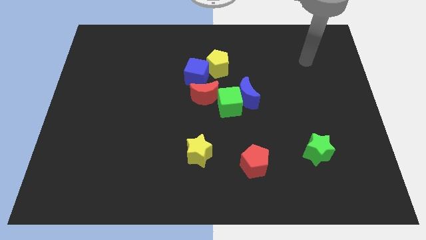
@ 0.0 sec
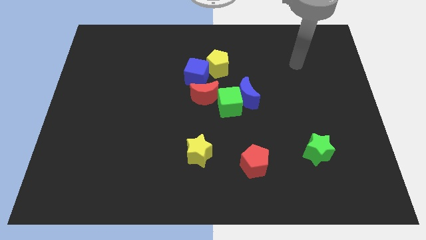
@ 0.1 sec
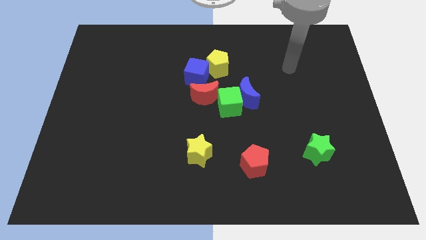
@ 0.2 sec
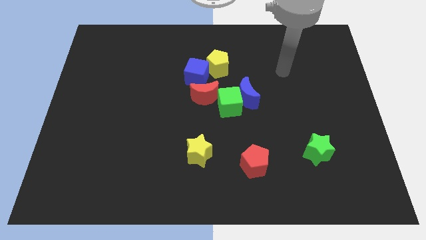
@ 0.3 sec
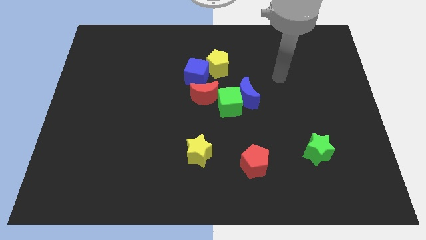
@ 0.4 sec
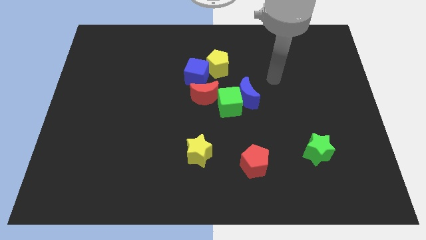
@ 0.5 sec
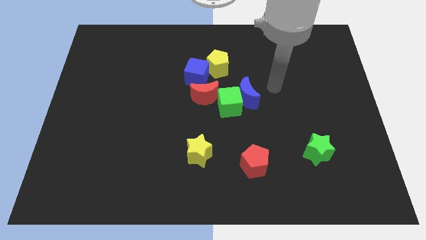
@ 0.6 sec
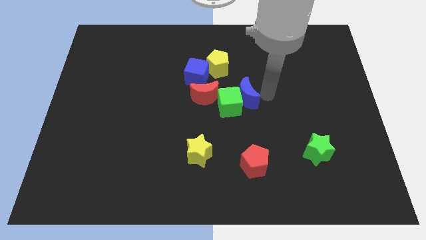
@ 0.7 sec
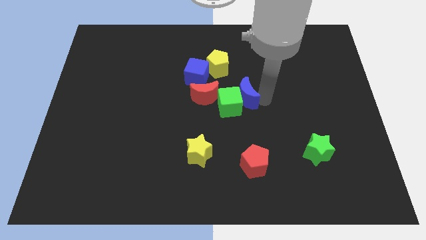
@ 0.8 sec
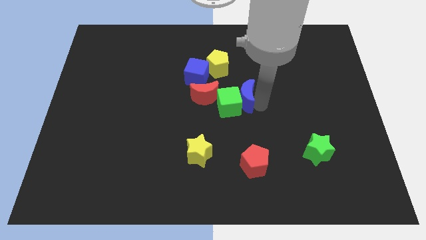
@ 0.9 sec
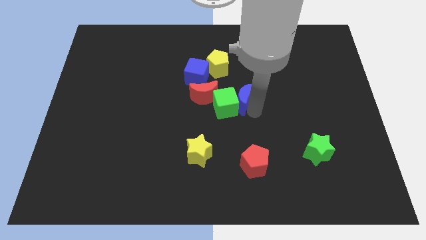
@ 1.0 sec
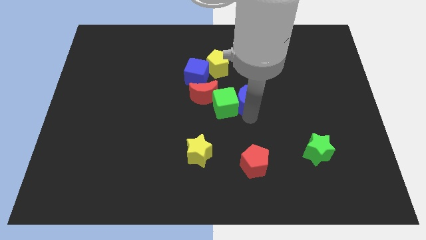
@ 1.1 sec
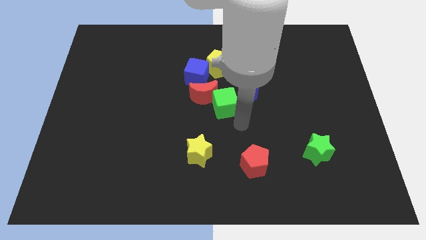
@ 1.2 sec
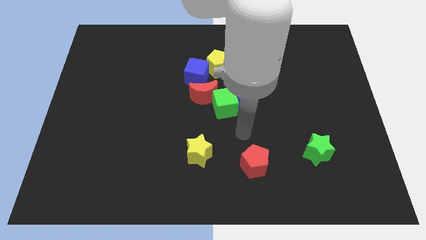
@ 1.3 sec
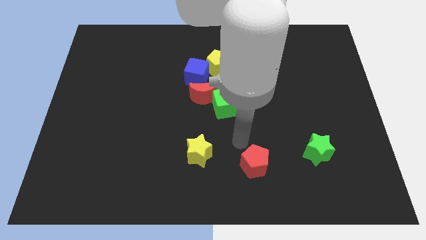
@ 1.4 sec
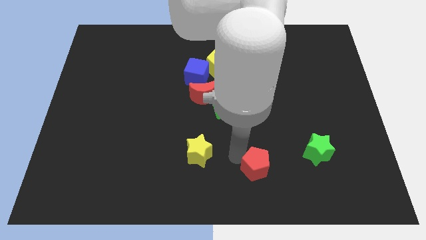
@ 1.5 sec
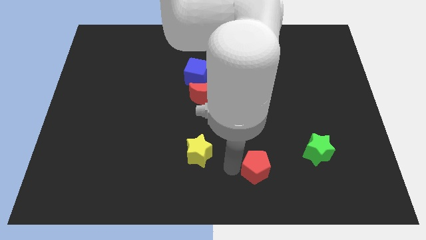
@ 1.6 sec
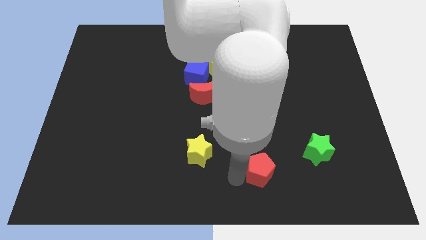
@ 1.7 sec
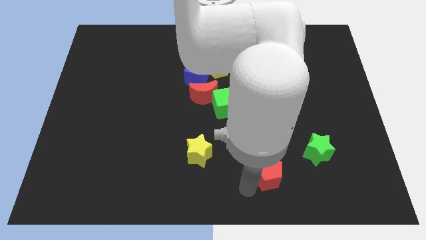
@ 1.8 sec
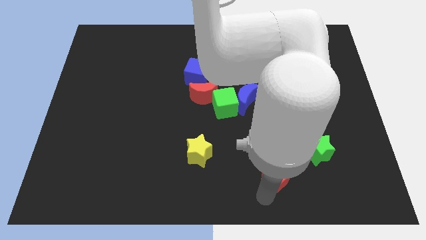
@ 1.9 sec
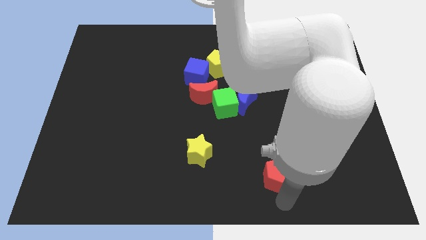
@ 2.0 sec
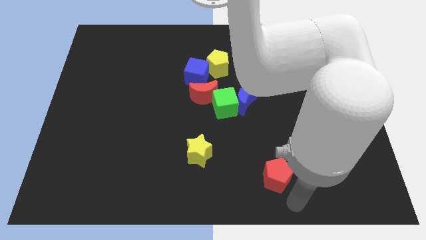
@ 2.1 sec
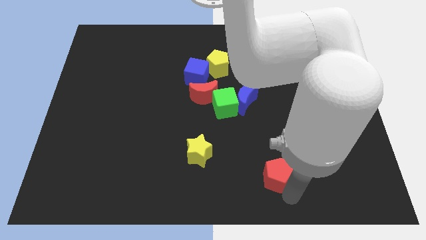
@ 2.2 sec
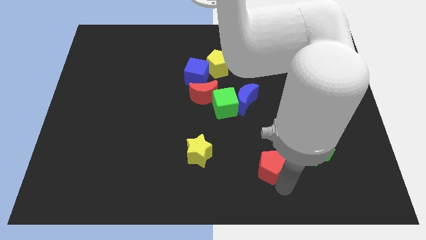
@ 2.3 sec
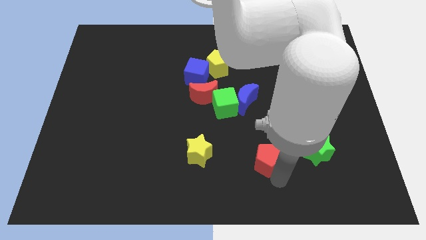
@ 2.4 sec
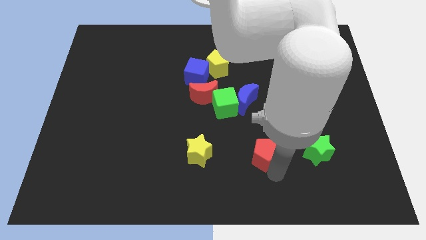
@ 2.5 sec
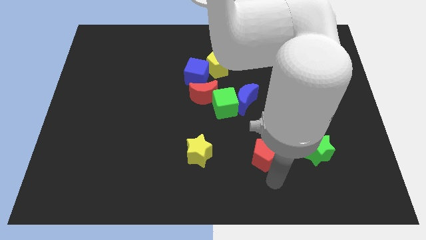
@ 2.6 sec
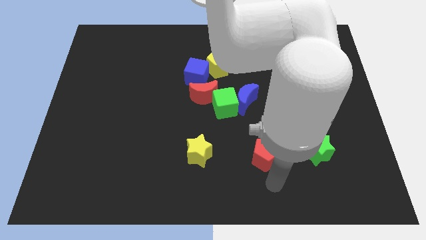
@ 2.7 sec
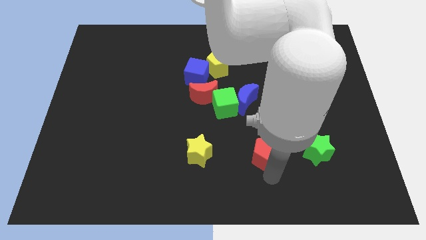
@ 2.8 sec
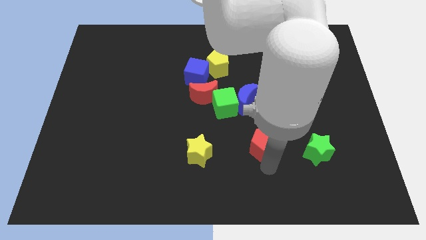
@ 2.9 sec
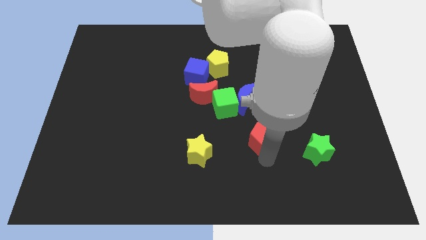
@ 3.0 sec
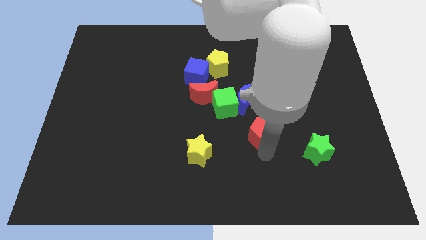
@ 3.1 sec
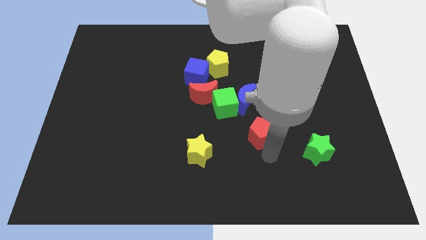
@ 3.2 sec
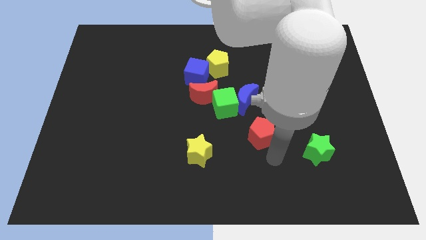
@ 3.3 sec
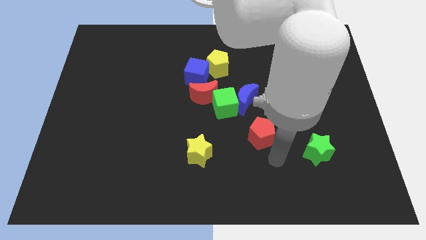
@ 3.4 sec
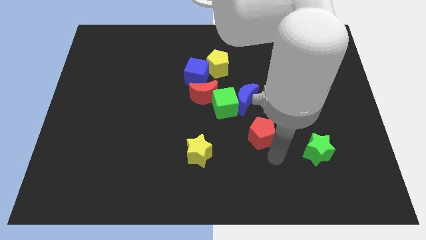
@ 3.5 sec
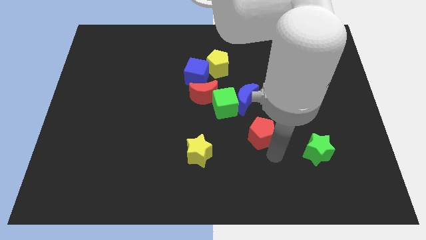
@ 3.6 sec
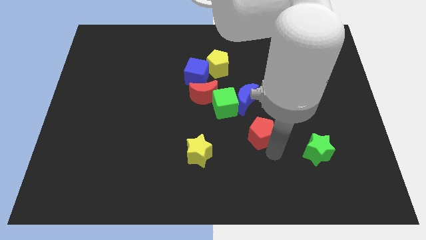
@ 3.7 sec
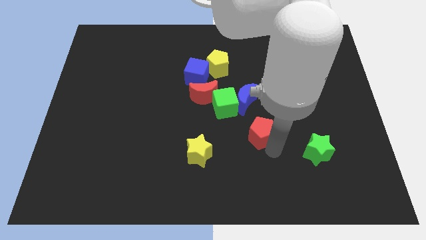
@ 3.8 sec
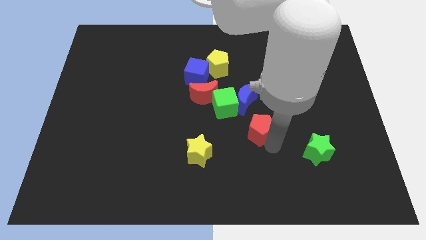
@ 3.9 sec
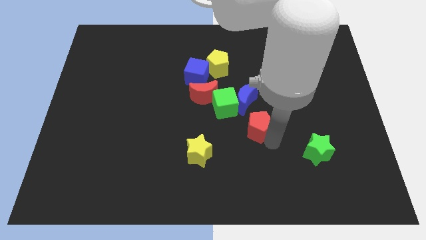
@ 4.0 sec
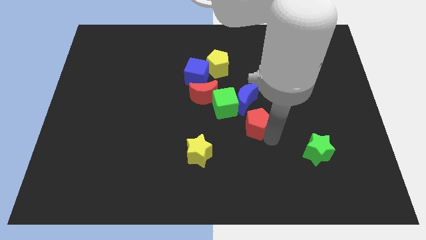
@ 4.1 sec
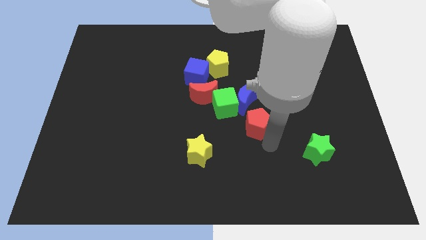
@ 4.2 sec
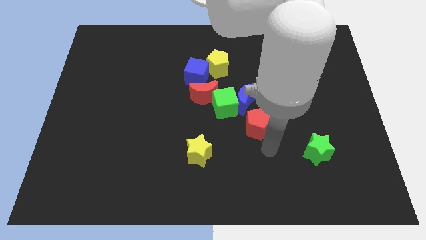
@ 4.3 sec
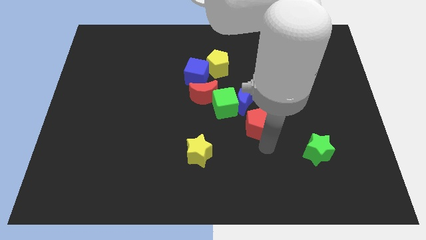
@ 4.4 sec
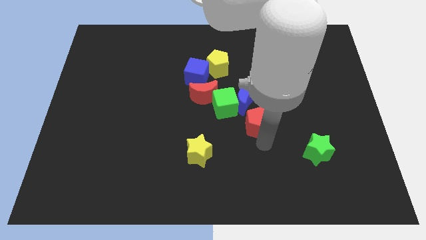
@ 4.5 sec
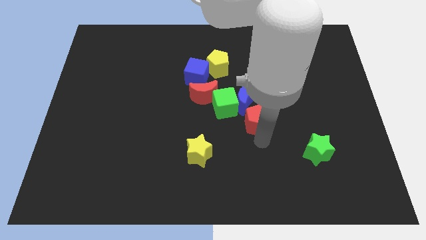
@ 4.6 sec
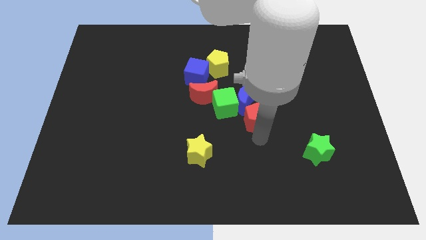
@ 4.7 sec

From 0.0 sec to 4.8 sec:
push the red pentagon next to the blue moon

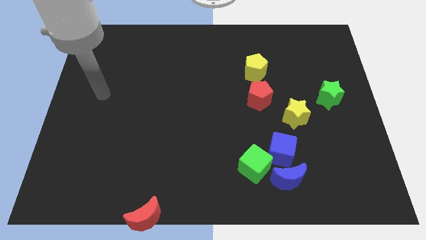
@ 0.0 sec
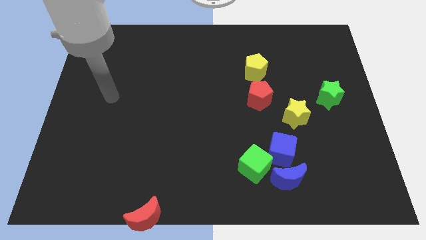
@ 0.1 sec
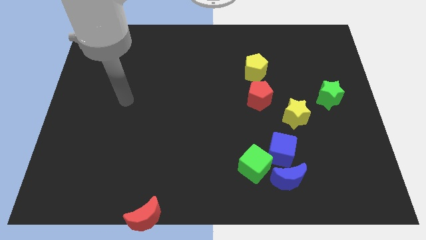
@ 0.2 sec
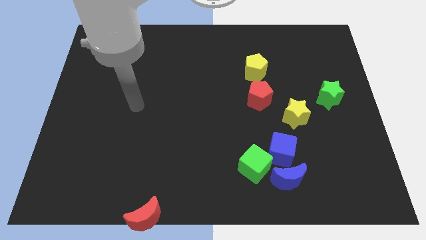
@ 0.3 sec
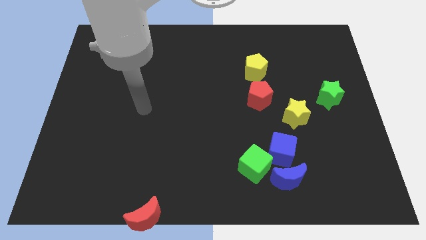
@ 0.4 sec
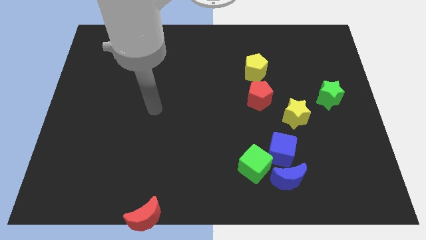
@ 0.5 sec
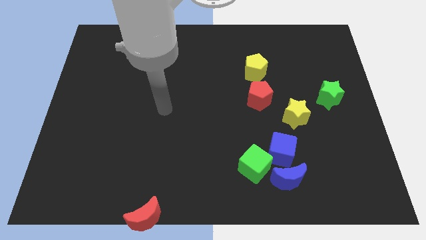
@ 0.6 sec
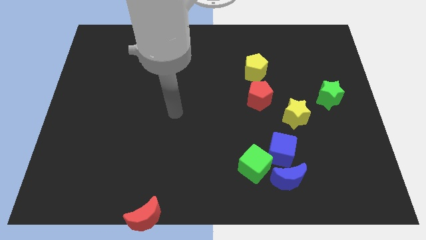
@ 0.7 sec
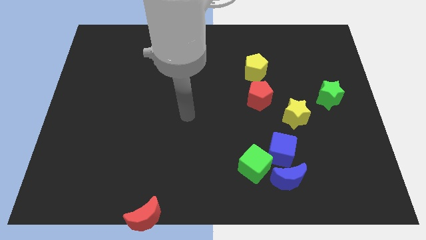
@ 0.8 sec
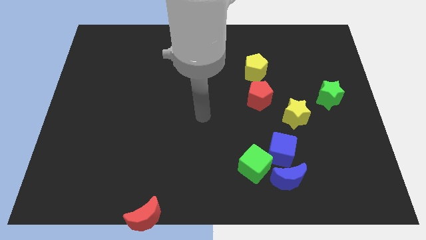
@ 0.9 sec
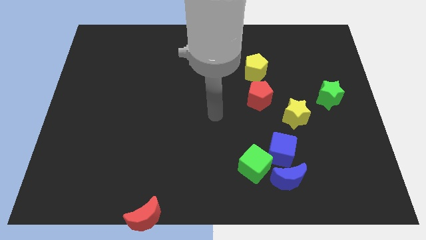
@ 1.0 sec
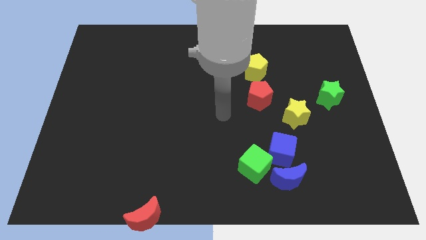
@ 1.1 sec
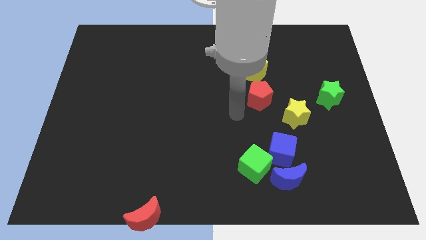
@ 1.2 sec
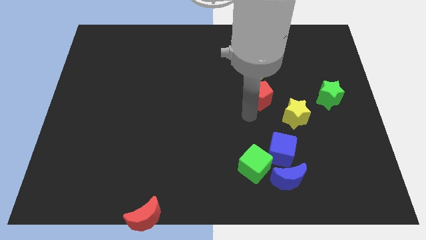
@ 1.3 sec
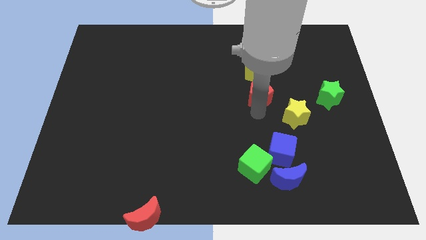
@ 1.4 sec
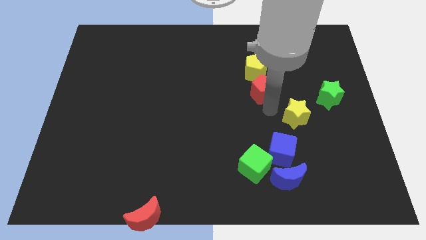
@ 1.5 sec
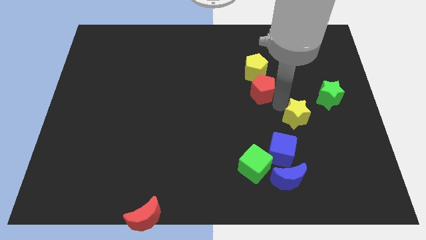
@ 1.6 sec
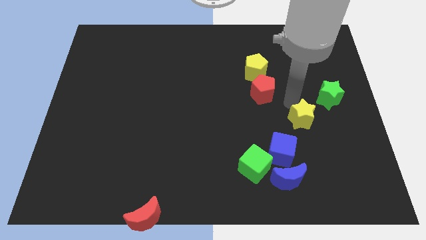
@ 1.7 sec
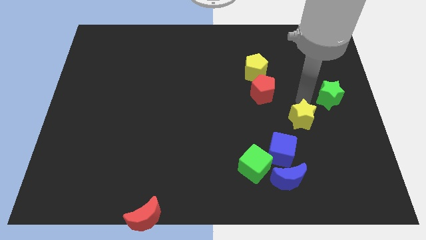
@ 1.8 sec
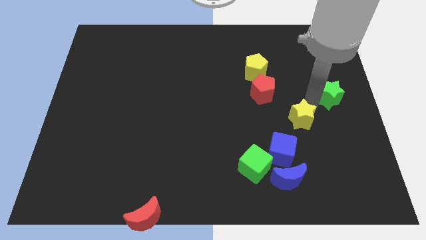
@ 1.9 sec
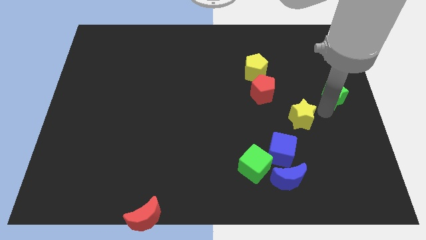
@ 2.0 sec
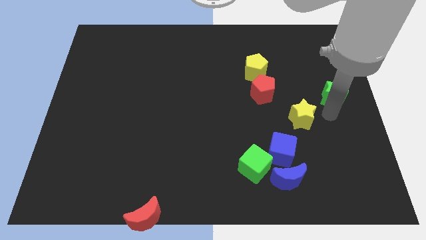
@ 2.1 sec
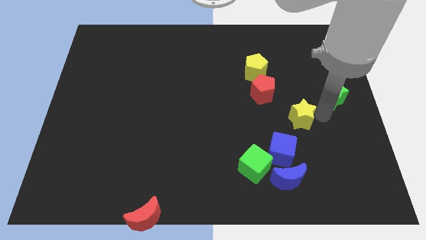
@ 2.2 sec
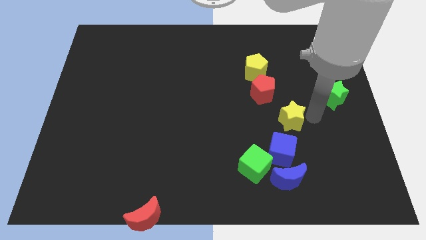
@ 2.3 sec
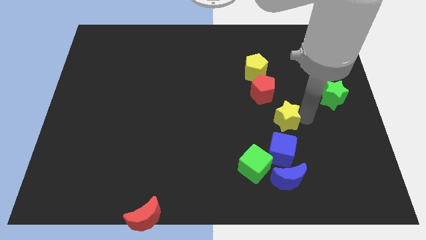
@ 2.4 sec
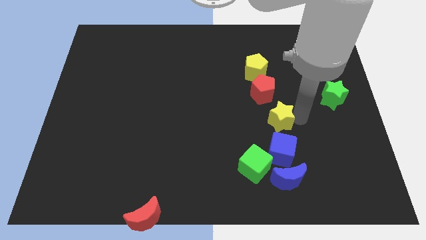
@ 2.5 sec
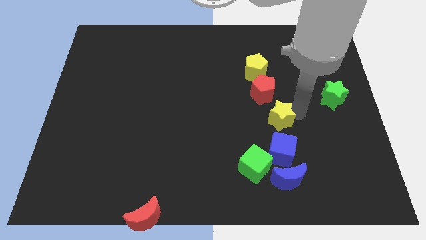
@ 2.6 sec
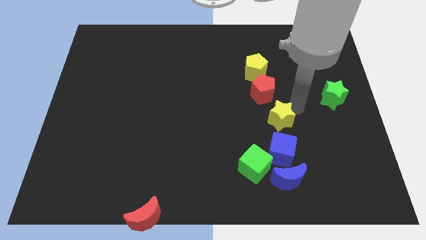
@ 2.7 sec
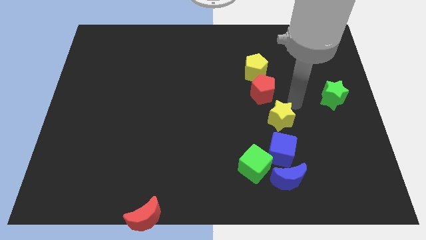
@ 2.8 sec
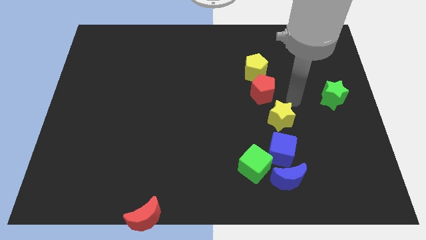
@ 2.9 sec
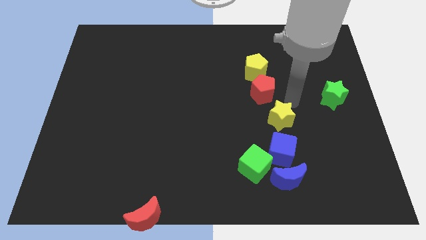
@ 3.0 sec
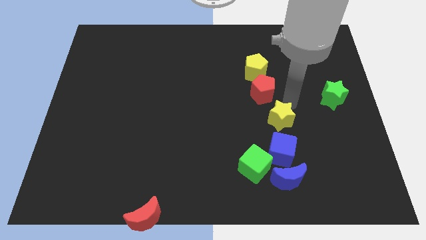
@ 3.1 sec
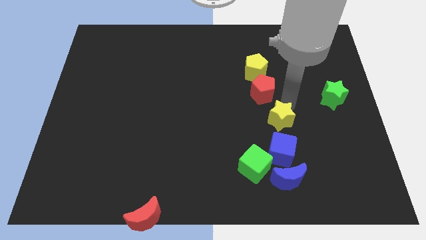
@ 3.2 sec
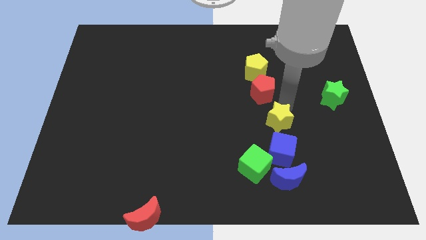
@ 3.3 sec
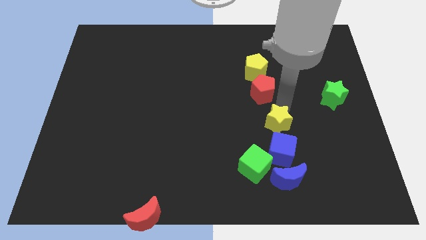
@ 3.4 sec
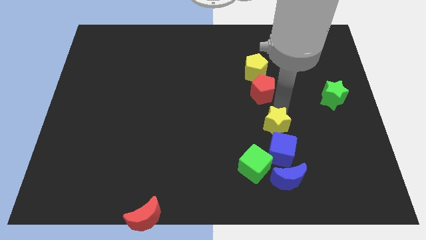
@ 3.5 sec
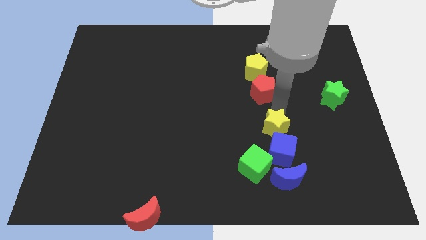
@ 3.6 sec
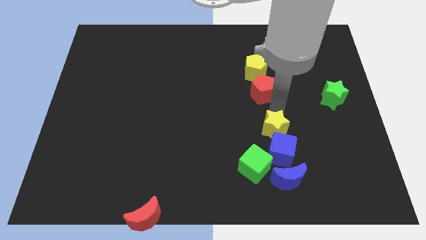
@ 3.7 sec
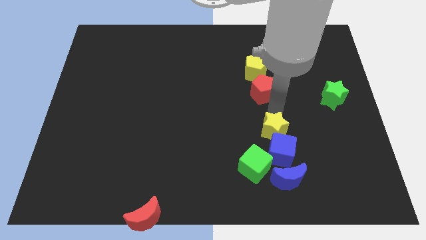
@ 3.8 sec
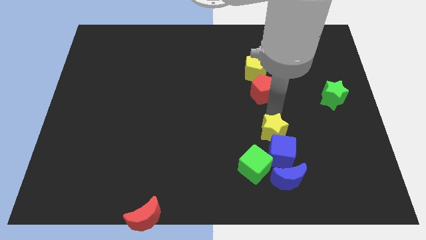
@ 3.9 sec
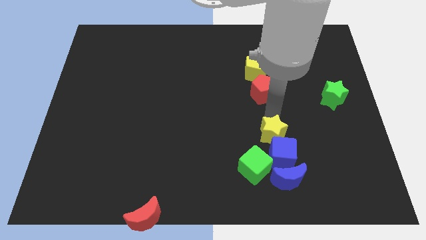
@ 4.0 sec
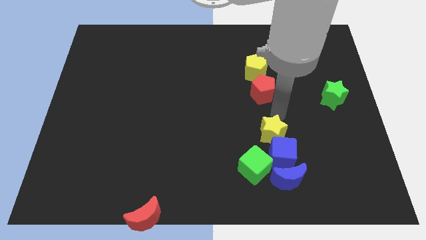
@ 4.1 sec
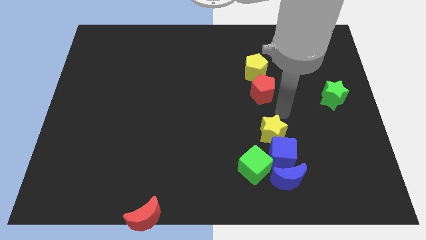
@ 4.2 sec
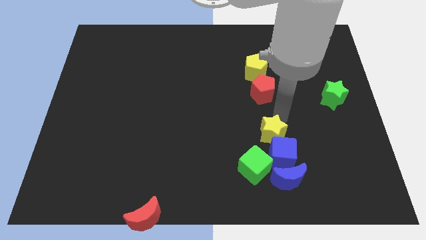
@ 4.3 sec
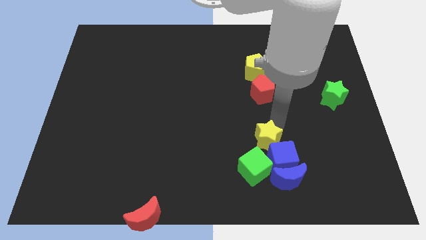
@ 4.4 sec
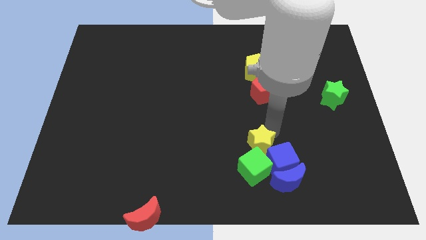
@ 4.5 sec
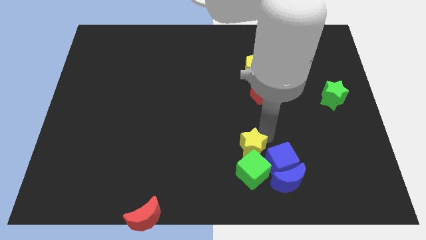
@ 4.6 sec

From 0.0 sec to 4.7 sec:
slide the yellow star towards the green cube
